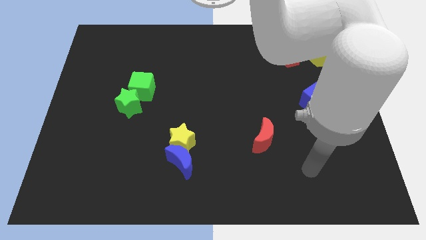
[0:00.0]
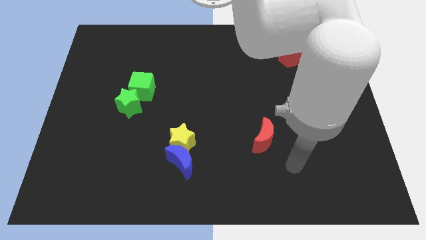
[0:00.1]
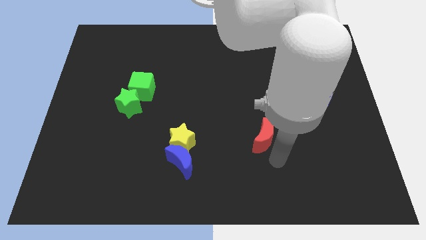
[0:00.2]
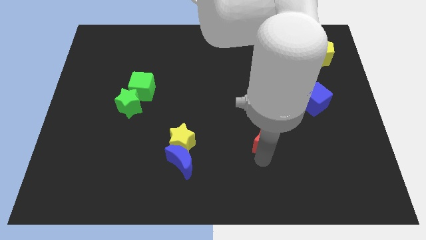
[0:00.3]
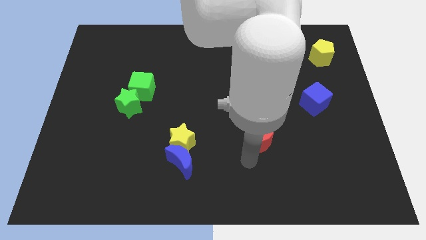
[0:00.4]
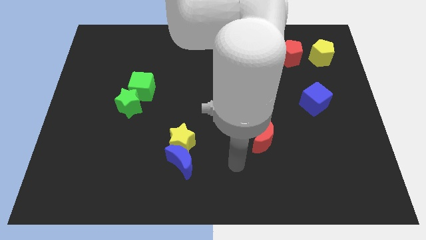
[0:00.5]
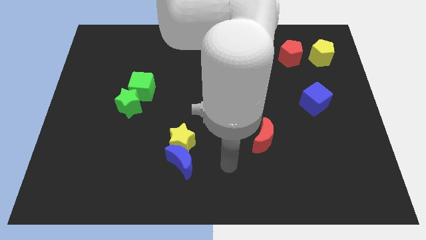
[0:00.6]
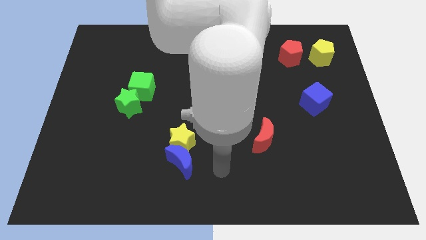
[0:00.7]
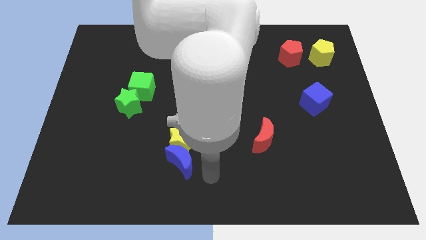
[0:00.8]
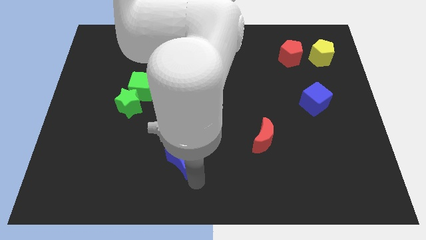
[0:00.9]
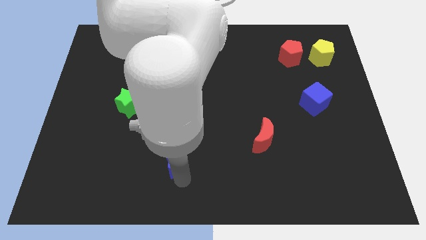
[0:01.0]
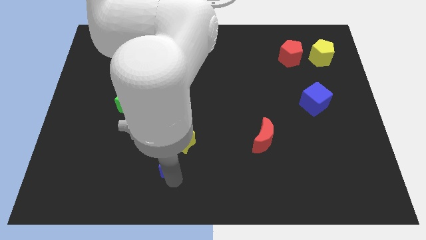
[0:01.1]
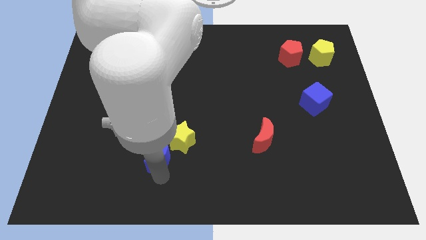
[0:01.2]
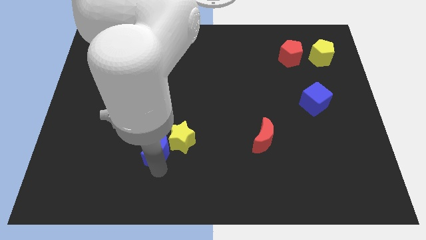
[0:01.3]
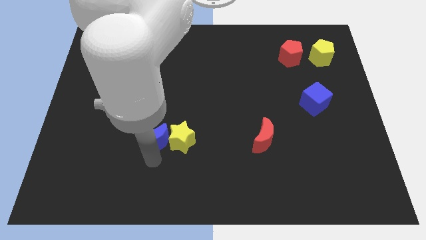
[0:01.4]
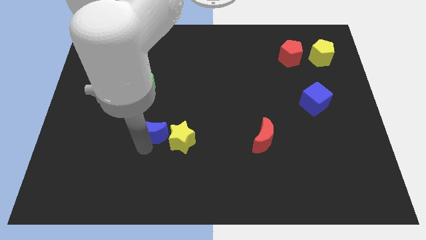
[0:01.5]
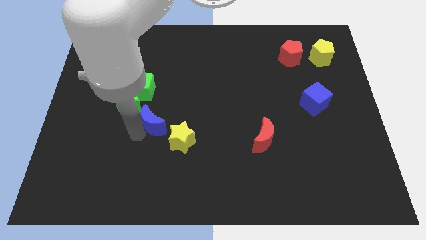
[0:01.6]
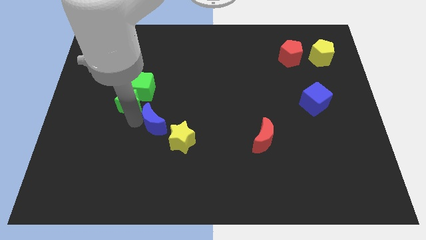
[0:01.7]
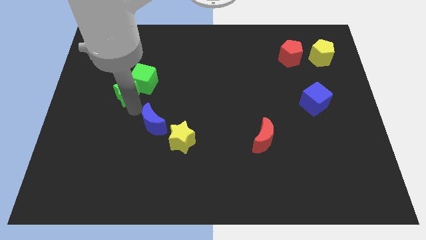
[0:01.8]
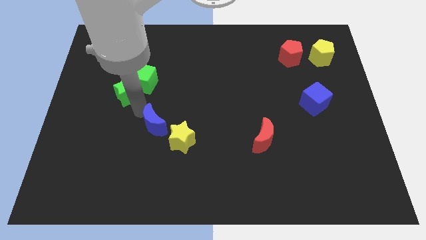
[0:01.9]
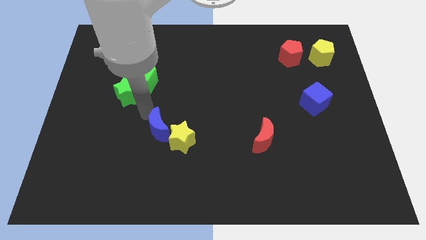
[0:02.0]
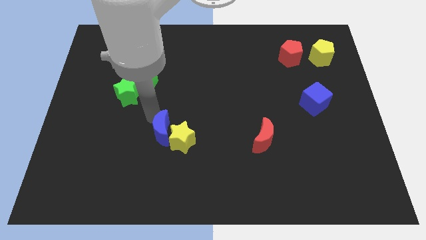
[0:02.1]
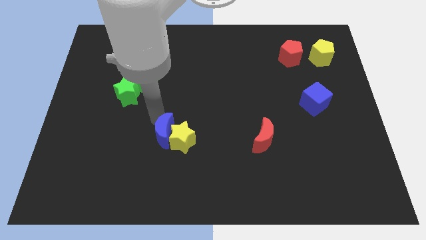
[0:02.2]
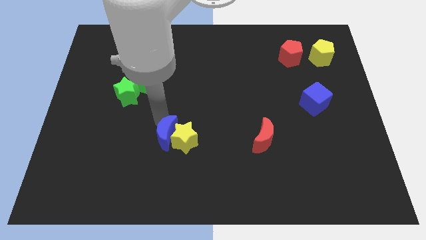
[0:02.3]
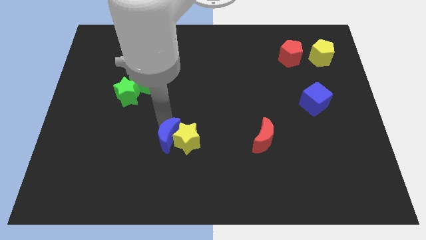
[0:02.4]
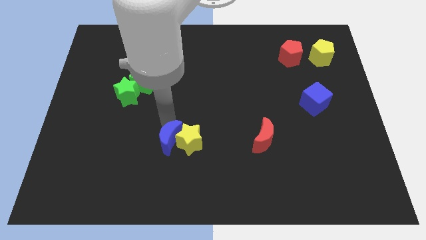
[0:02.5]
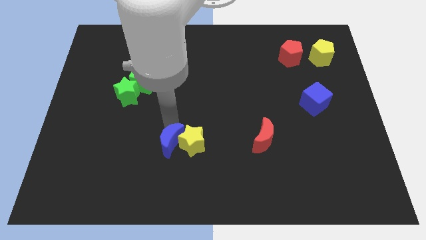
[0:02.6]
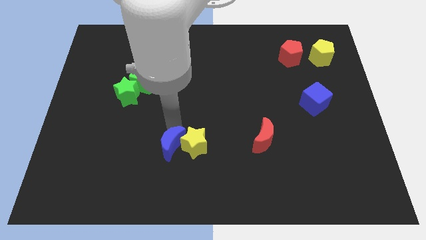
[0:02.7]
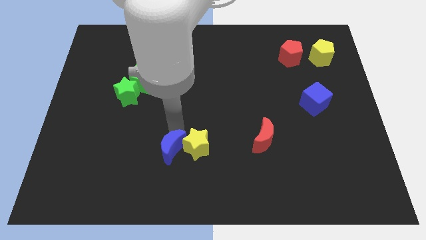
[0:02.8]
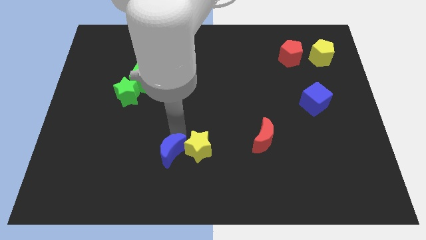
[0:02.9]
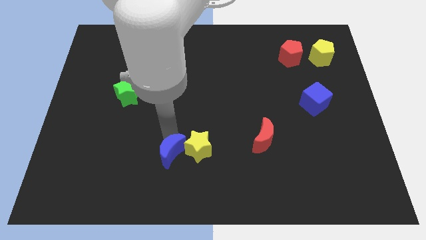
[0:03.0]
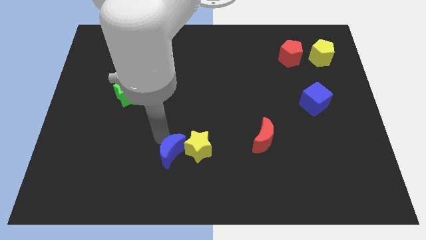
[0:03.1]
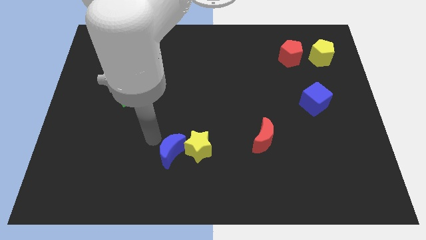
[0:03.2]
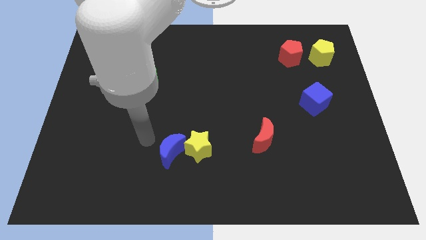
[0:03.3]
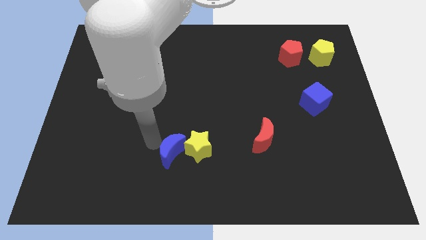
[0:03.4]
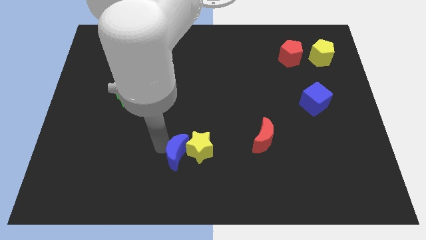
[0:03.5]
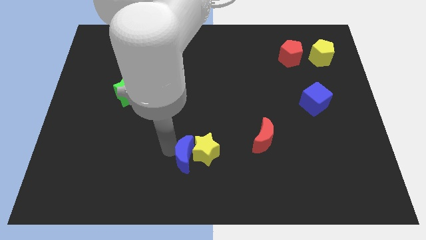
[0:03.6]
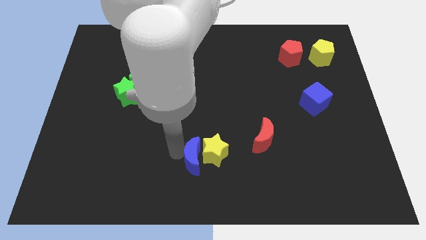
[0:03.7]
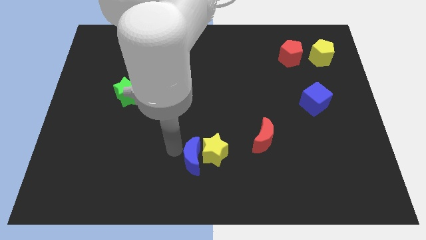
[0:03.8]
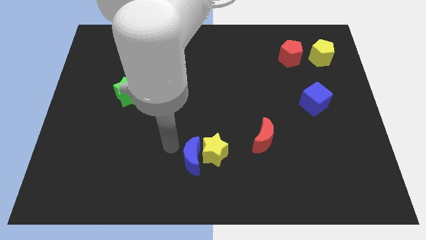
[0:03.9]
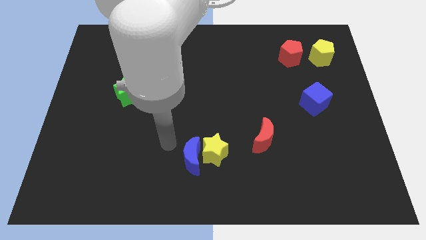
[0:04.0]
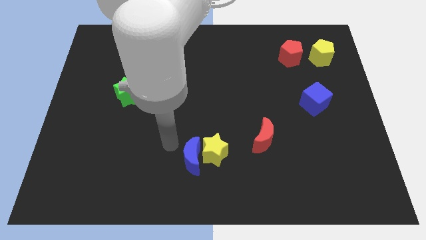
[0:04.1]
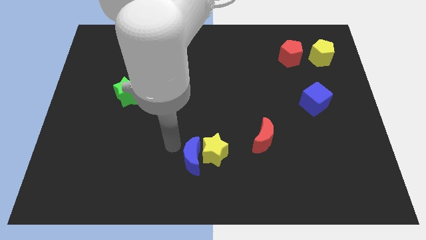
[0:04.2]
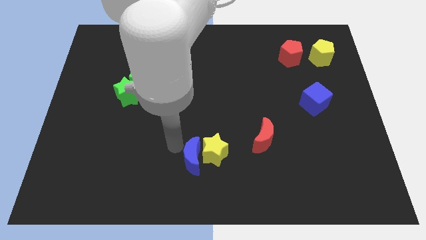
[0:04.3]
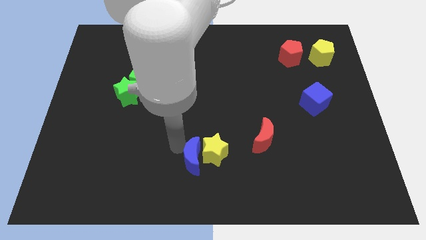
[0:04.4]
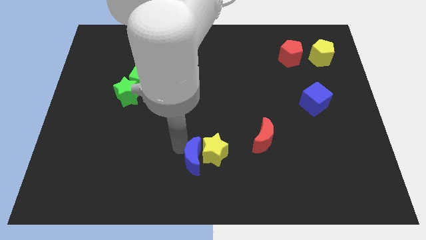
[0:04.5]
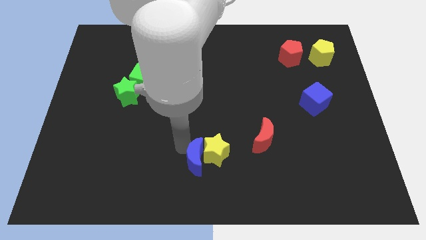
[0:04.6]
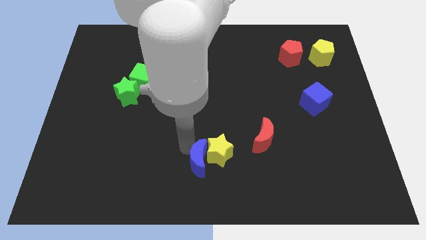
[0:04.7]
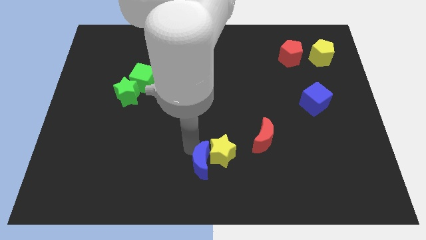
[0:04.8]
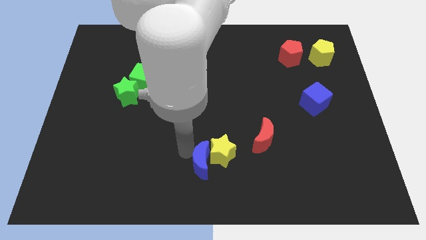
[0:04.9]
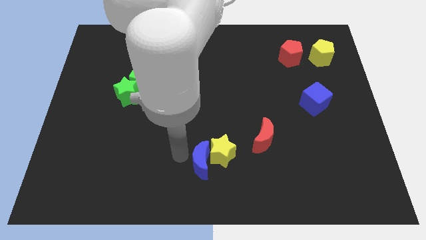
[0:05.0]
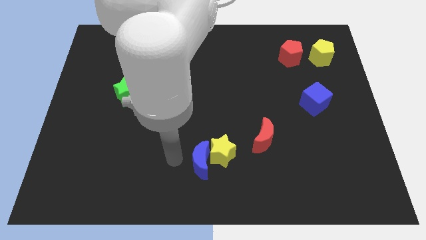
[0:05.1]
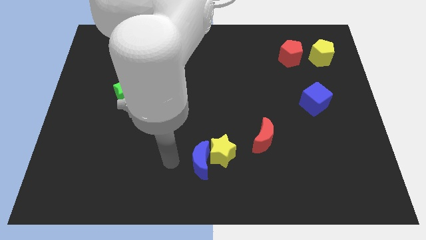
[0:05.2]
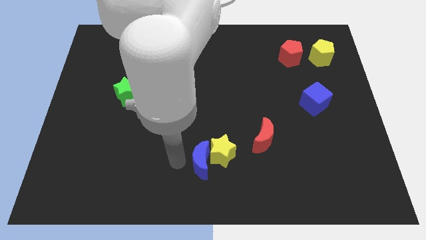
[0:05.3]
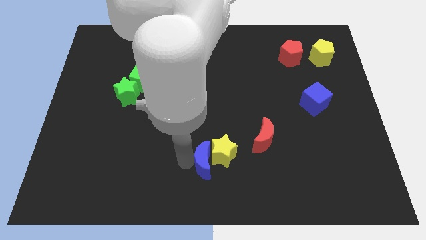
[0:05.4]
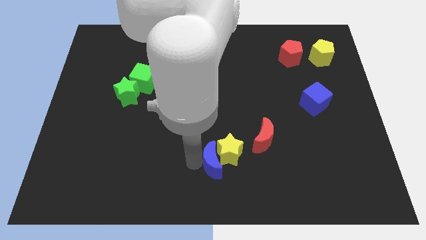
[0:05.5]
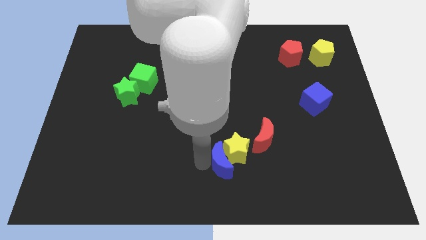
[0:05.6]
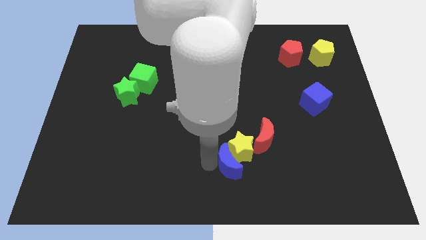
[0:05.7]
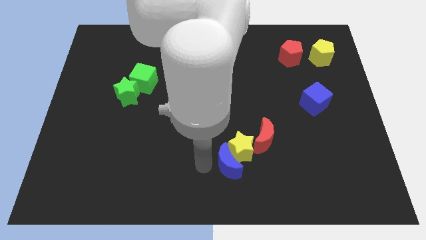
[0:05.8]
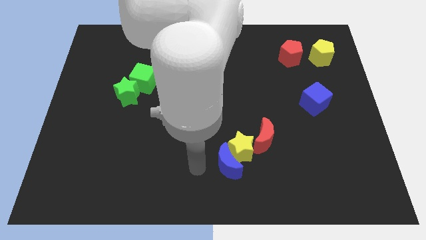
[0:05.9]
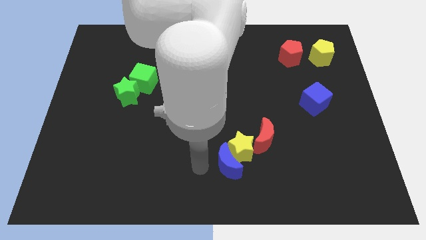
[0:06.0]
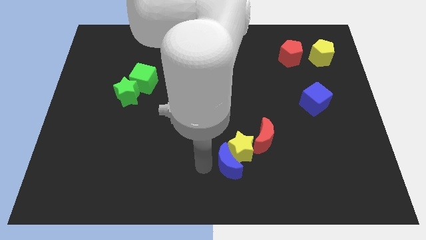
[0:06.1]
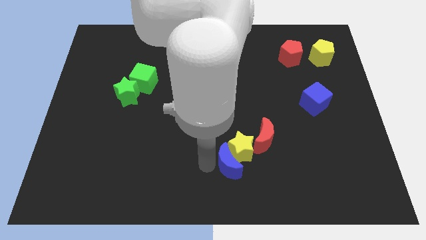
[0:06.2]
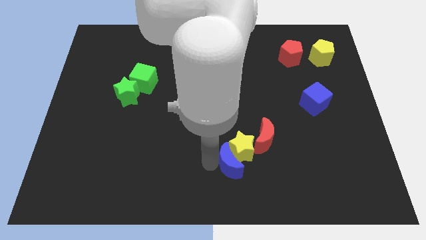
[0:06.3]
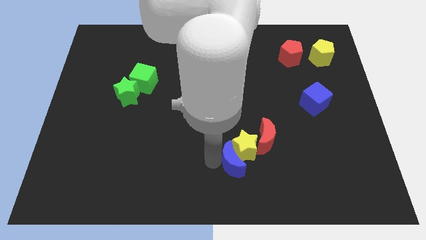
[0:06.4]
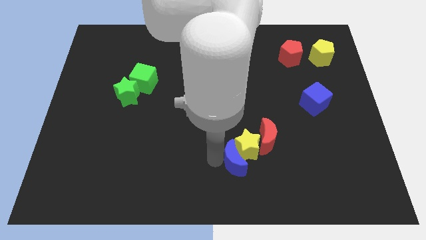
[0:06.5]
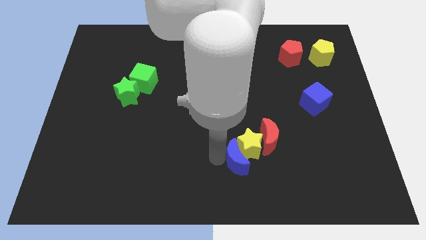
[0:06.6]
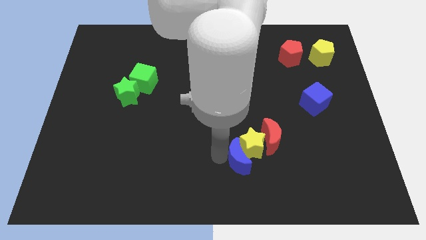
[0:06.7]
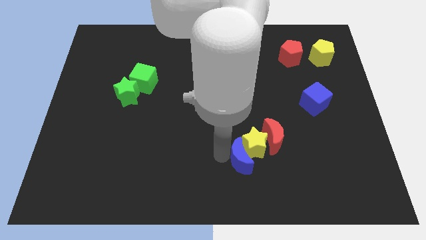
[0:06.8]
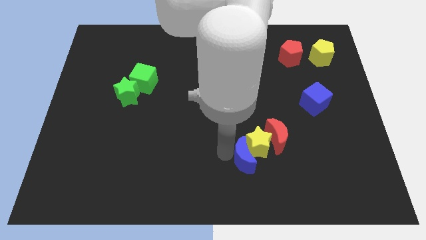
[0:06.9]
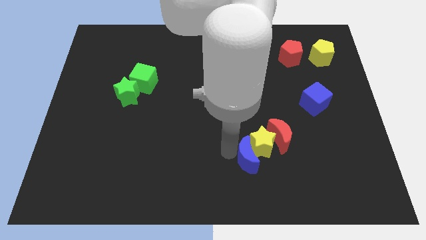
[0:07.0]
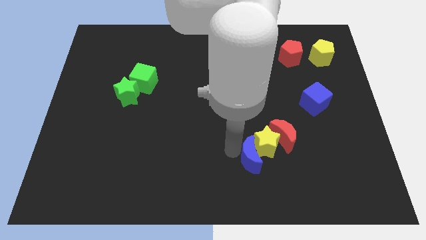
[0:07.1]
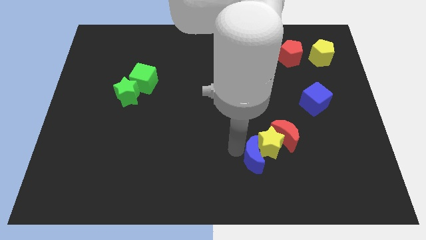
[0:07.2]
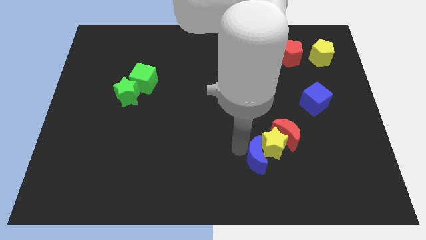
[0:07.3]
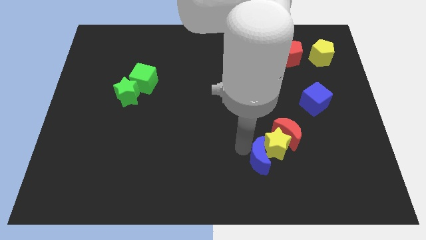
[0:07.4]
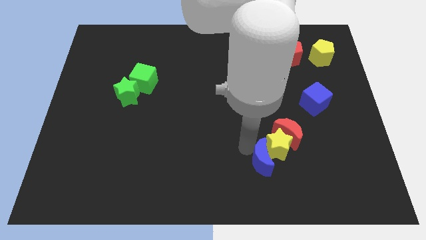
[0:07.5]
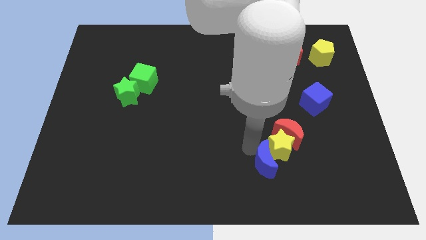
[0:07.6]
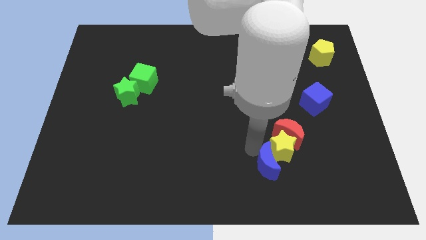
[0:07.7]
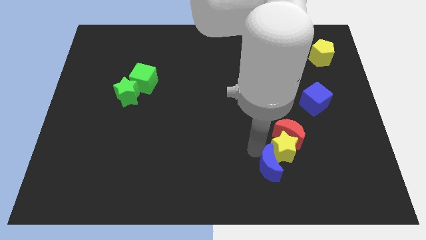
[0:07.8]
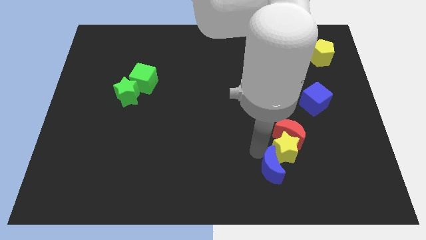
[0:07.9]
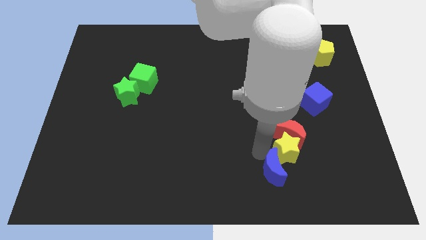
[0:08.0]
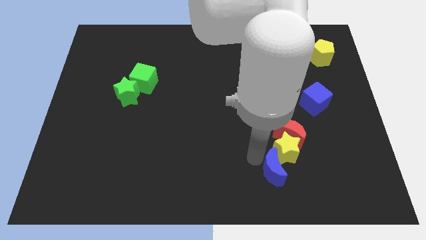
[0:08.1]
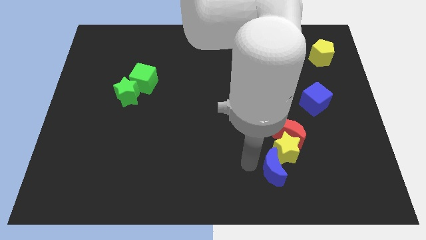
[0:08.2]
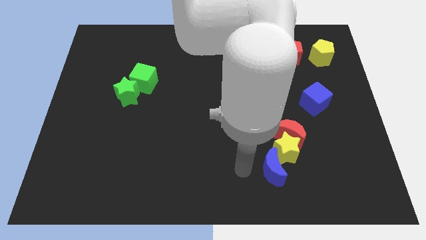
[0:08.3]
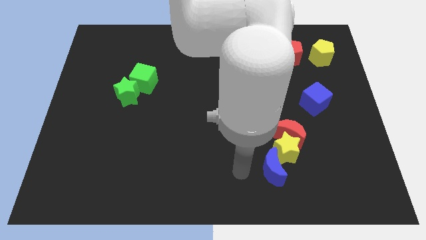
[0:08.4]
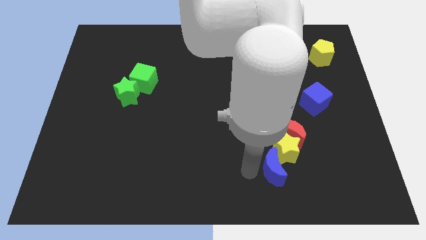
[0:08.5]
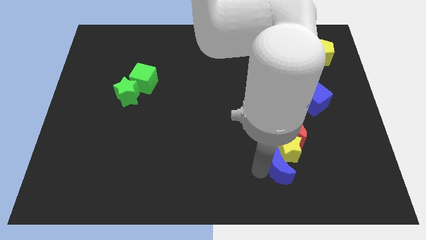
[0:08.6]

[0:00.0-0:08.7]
slide the blue moon to the right
